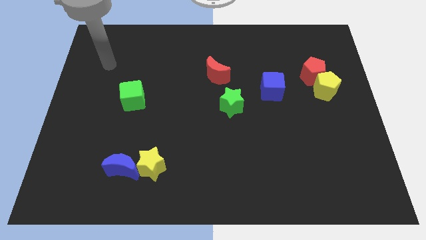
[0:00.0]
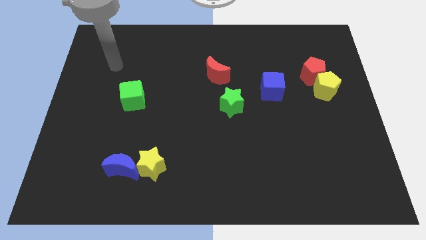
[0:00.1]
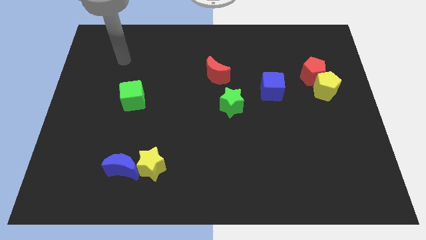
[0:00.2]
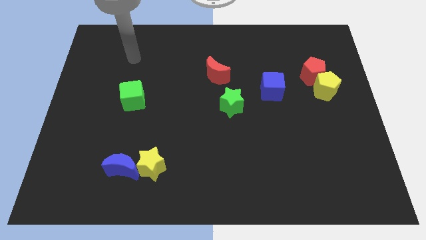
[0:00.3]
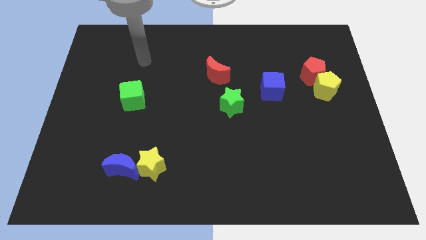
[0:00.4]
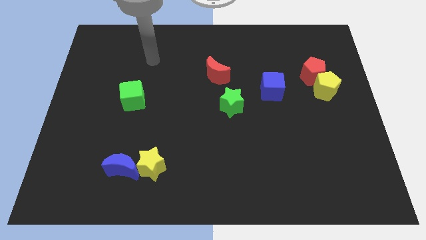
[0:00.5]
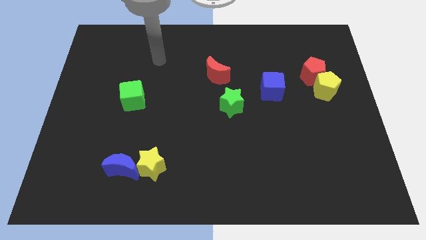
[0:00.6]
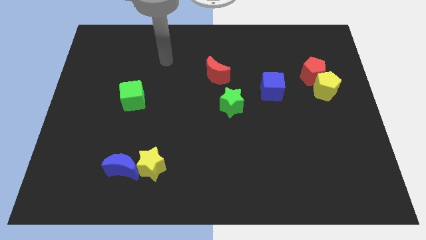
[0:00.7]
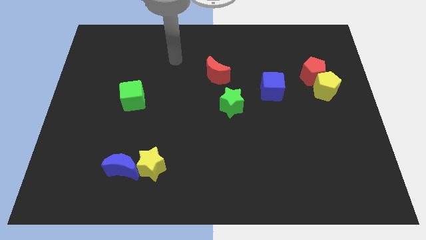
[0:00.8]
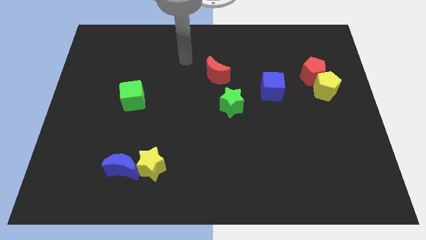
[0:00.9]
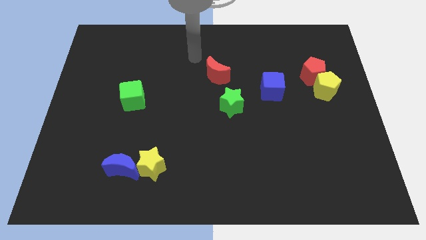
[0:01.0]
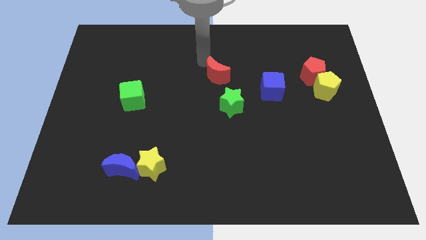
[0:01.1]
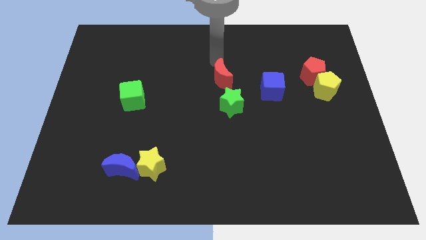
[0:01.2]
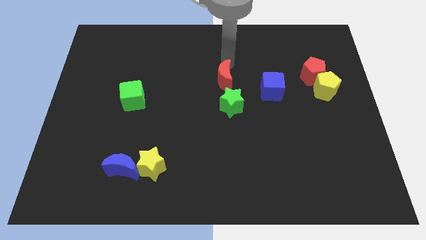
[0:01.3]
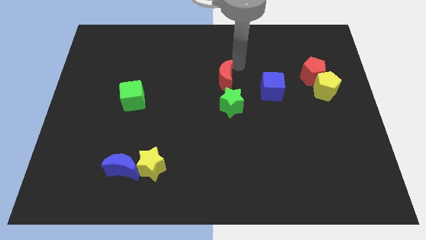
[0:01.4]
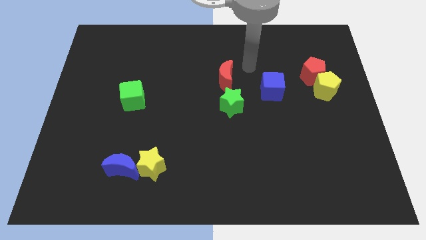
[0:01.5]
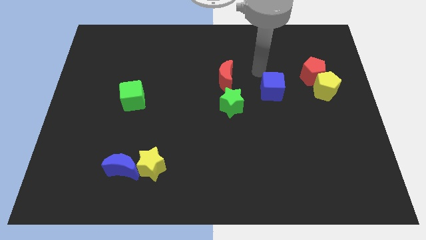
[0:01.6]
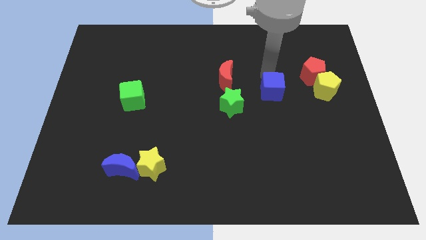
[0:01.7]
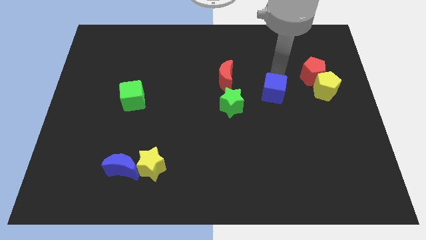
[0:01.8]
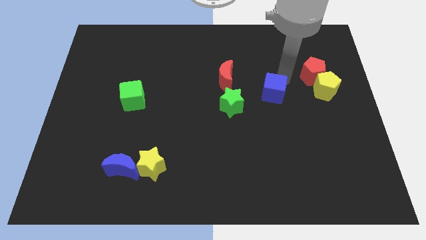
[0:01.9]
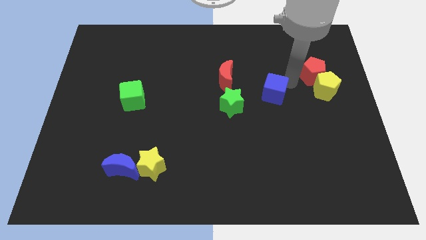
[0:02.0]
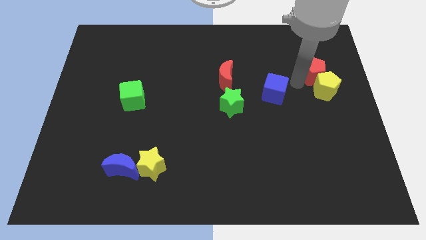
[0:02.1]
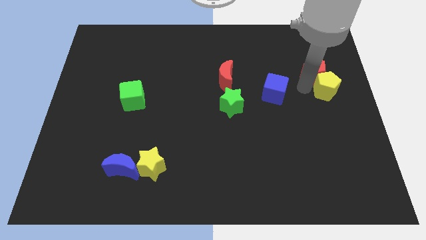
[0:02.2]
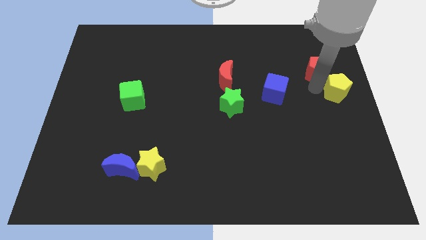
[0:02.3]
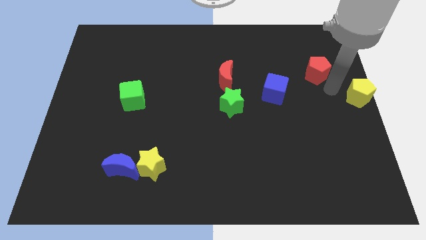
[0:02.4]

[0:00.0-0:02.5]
separate the red pentagon from the yellow pentagon

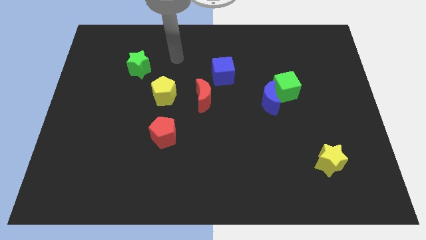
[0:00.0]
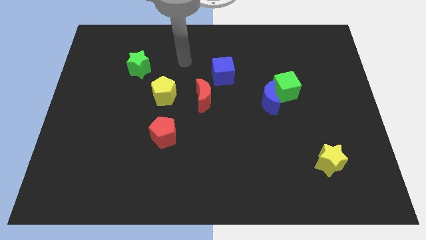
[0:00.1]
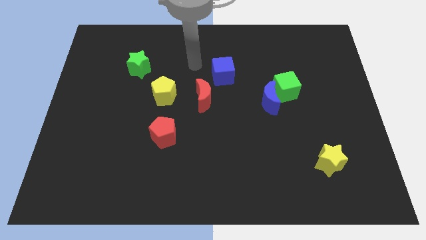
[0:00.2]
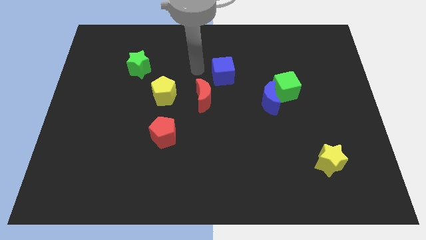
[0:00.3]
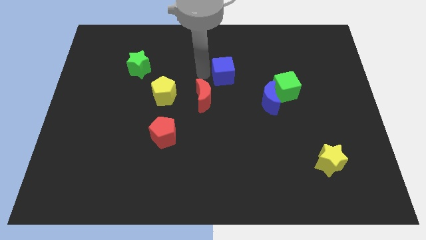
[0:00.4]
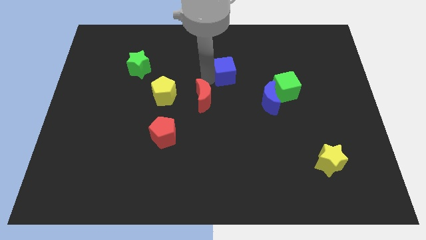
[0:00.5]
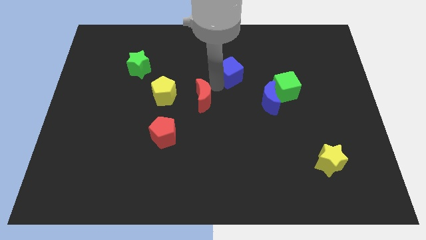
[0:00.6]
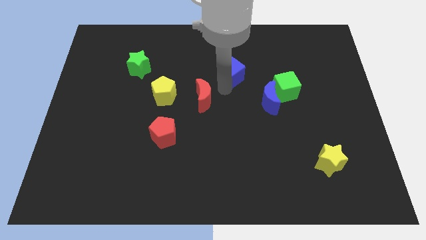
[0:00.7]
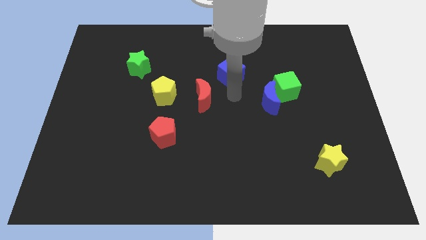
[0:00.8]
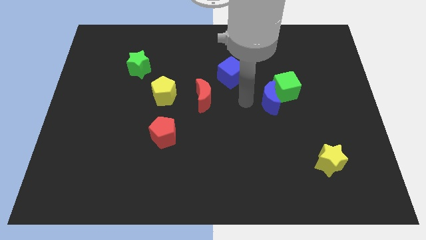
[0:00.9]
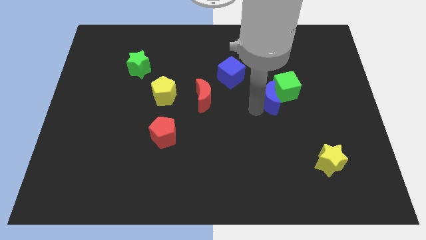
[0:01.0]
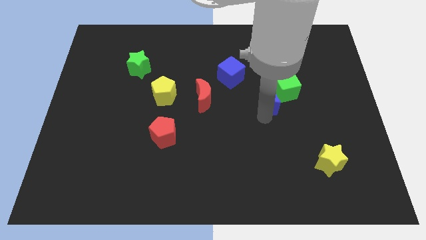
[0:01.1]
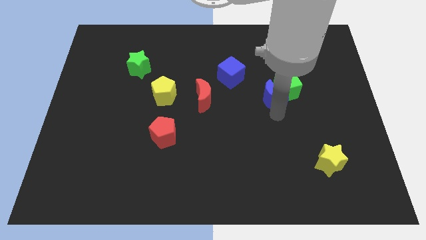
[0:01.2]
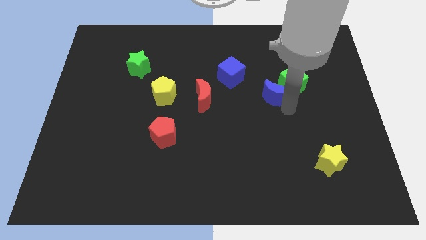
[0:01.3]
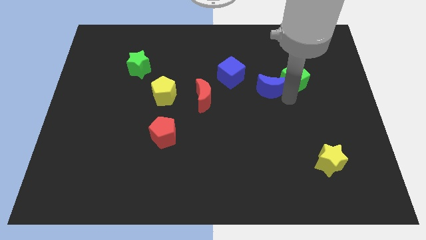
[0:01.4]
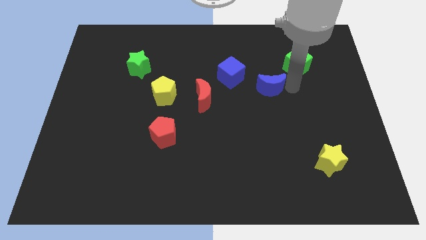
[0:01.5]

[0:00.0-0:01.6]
pull the blue moon apart from the green cube

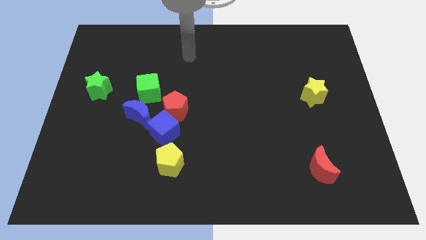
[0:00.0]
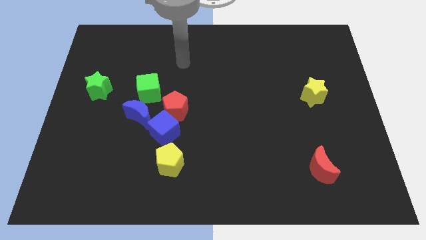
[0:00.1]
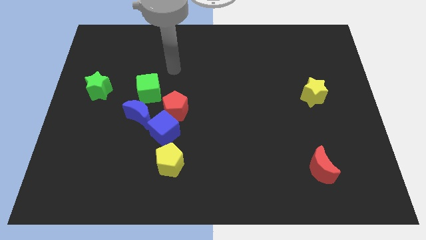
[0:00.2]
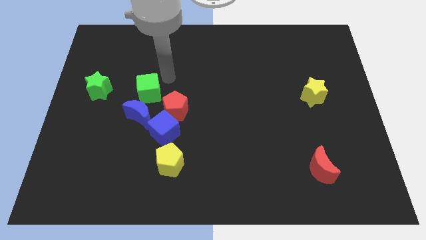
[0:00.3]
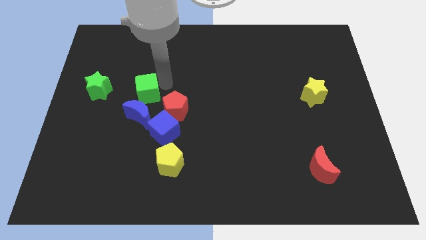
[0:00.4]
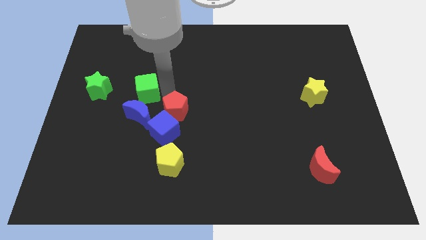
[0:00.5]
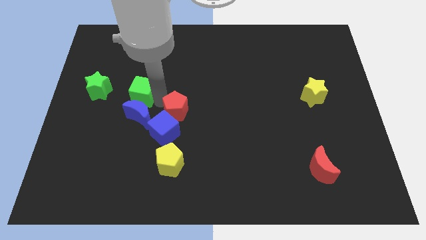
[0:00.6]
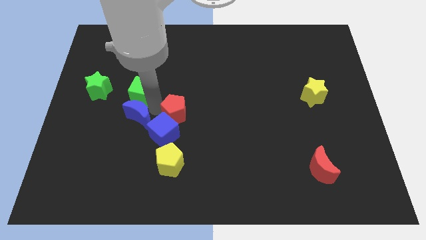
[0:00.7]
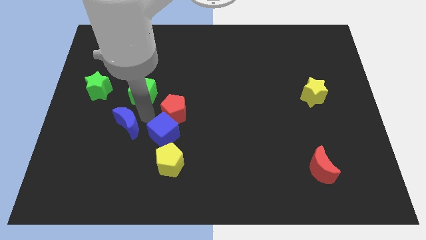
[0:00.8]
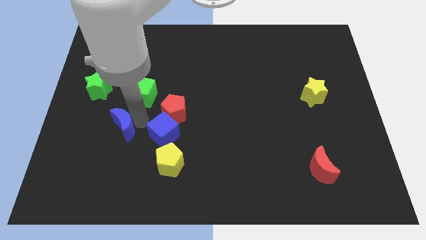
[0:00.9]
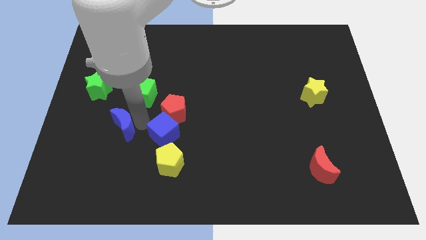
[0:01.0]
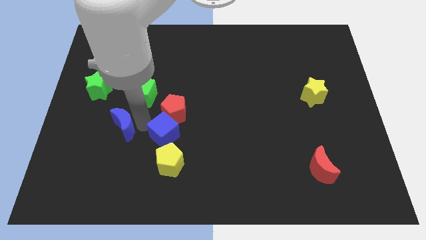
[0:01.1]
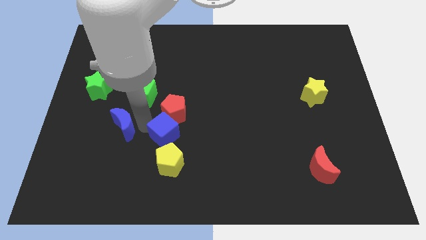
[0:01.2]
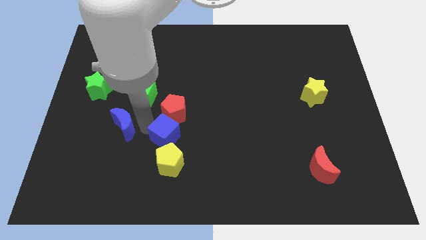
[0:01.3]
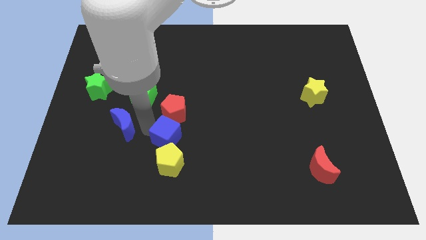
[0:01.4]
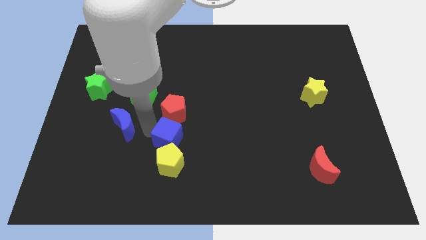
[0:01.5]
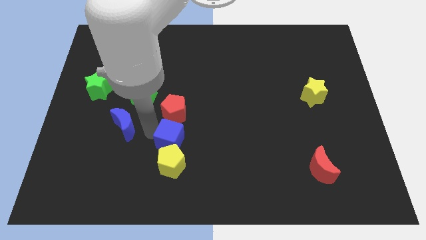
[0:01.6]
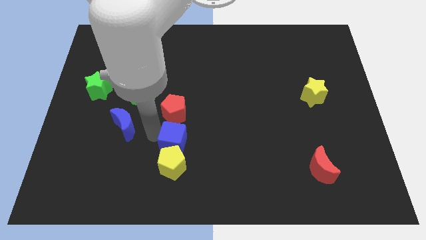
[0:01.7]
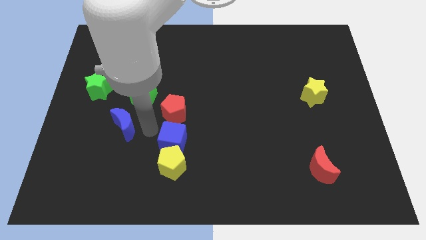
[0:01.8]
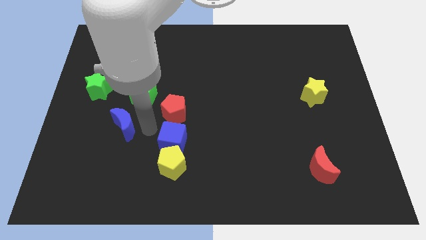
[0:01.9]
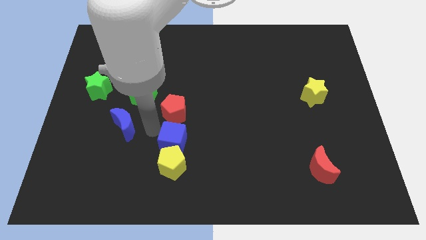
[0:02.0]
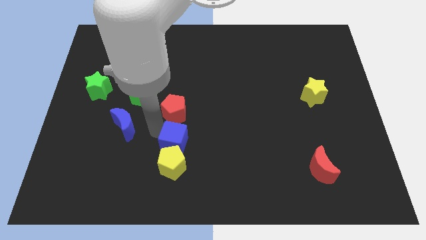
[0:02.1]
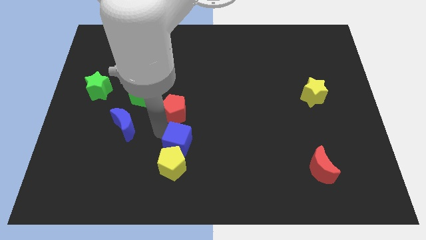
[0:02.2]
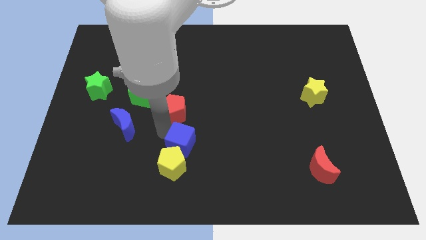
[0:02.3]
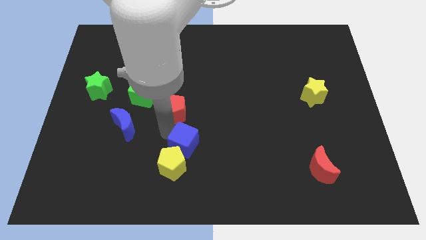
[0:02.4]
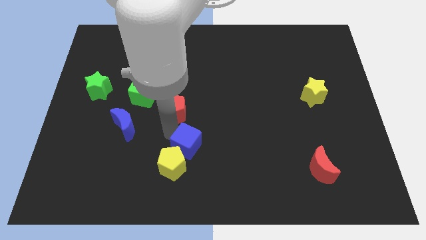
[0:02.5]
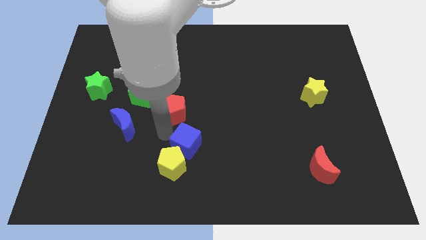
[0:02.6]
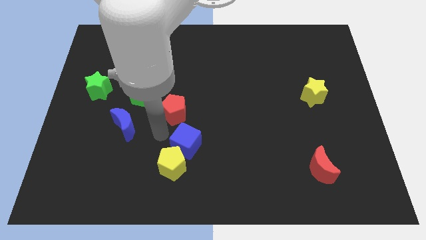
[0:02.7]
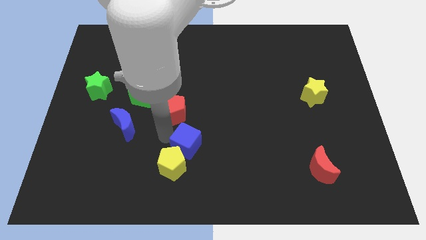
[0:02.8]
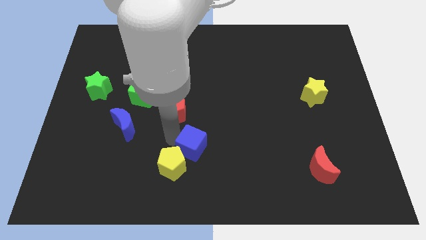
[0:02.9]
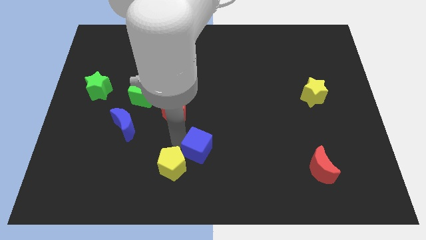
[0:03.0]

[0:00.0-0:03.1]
separate the blue cube from the red pentagon, blue moon, and yellow pentagon

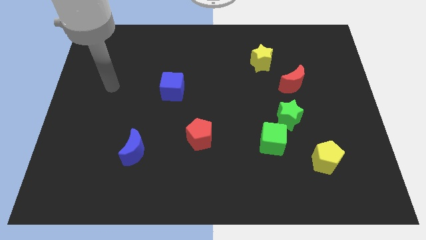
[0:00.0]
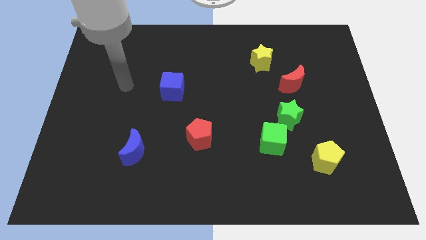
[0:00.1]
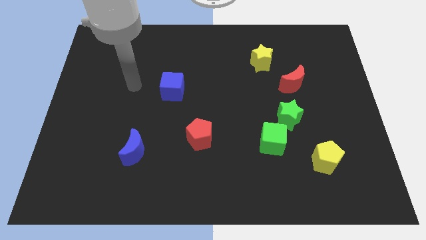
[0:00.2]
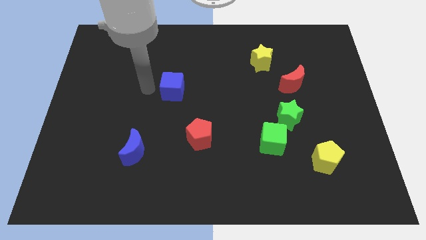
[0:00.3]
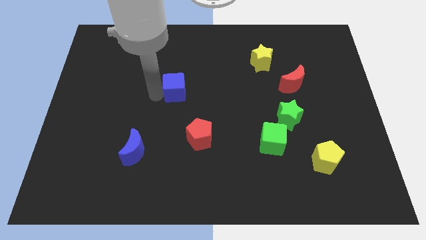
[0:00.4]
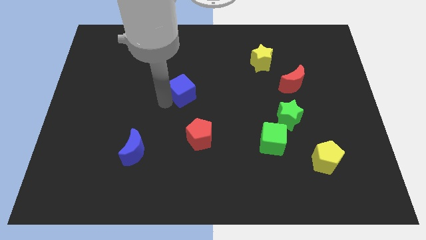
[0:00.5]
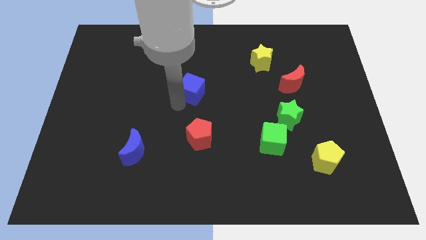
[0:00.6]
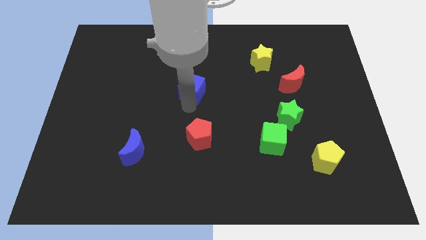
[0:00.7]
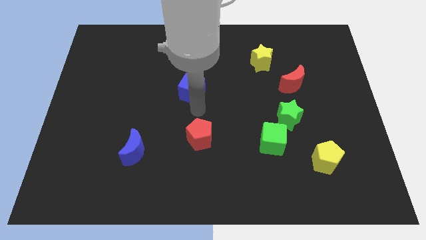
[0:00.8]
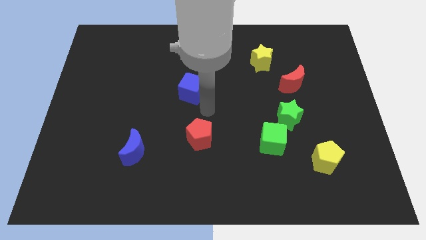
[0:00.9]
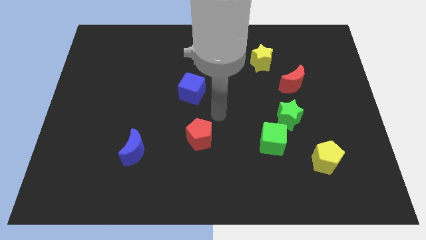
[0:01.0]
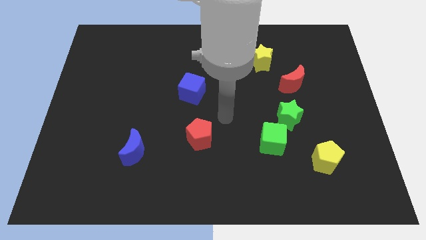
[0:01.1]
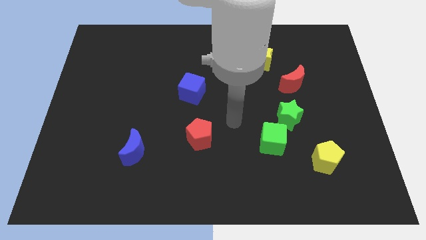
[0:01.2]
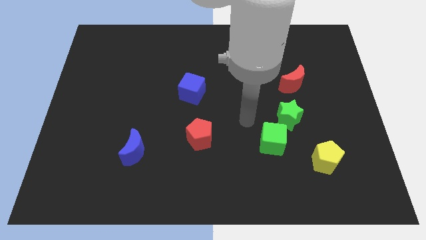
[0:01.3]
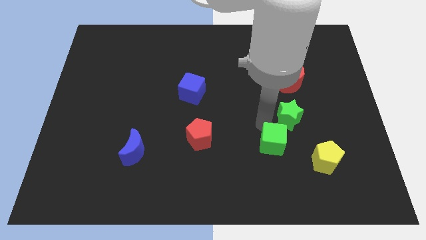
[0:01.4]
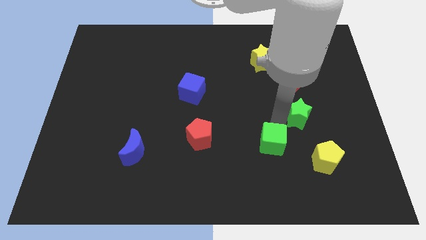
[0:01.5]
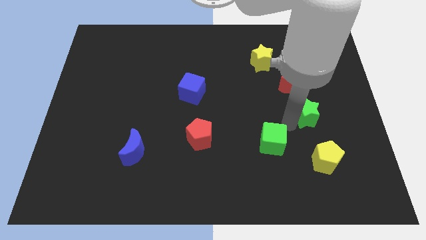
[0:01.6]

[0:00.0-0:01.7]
move the green cube away from the green star

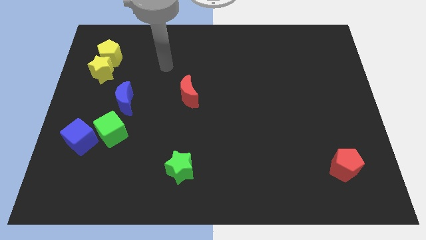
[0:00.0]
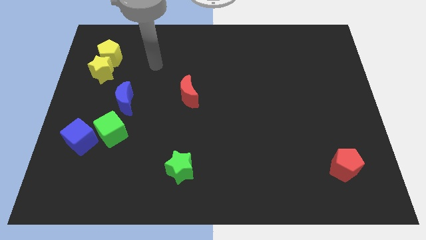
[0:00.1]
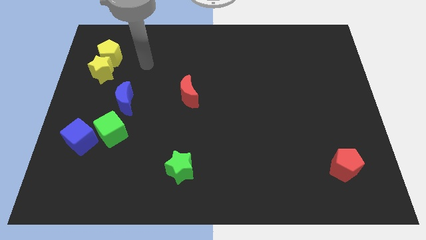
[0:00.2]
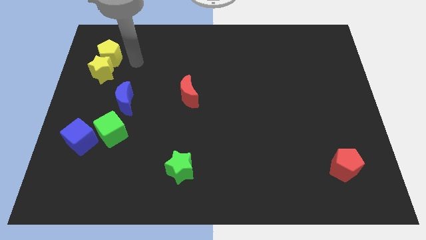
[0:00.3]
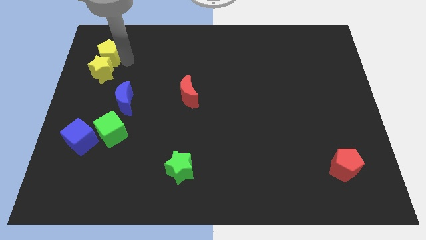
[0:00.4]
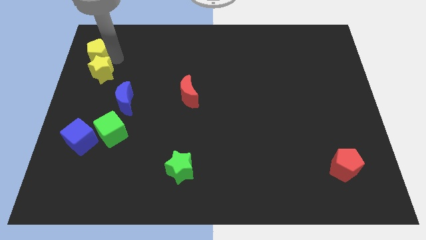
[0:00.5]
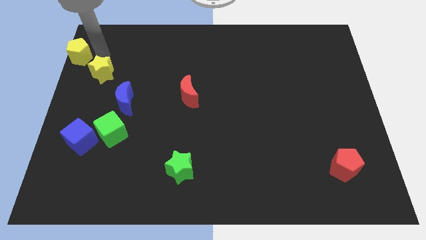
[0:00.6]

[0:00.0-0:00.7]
pull the yellow star apart from the yellow pentagon
